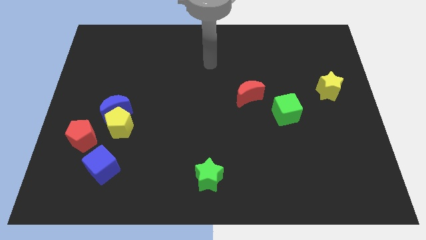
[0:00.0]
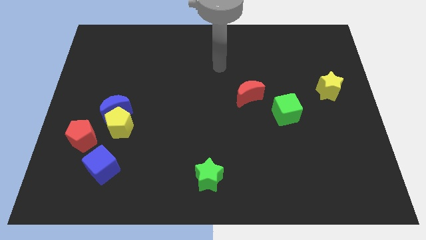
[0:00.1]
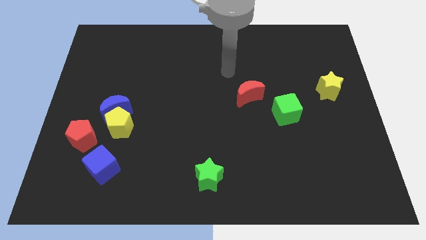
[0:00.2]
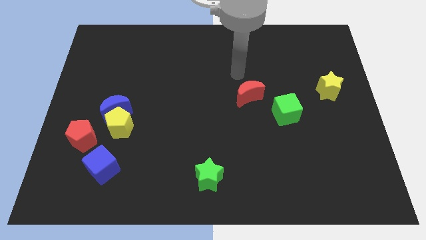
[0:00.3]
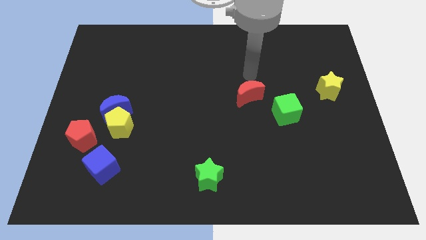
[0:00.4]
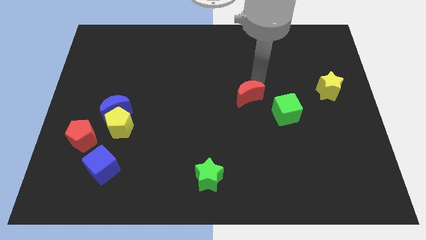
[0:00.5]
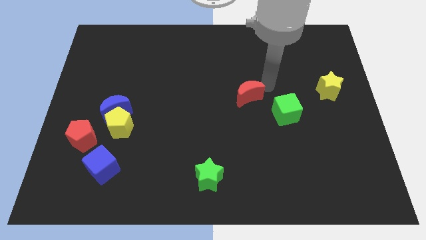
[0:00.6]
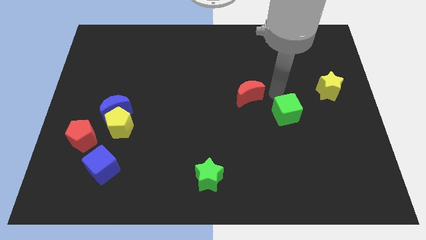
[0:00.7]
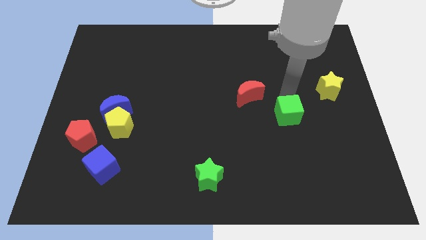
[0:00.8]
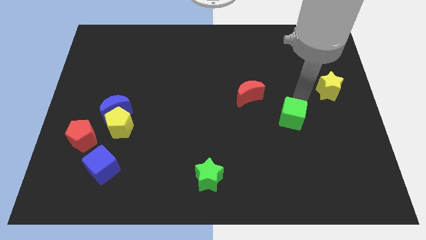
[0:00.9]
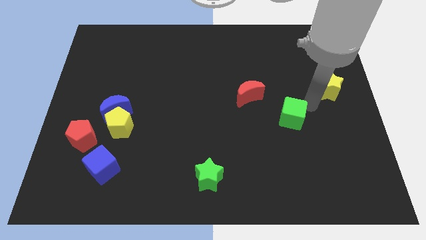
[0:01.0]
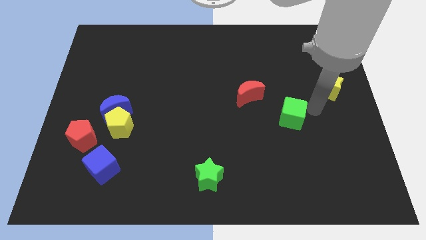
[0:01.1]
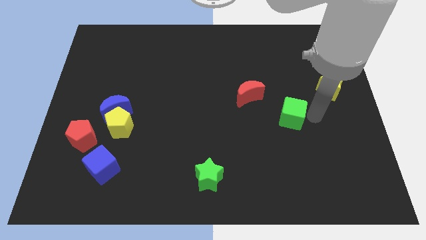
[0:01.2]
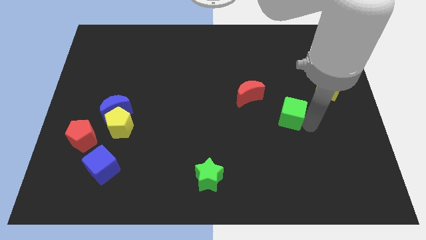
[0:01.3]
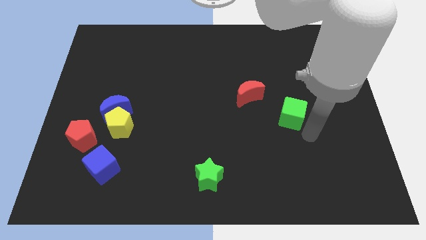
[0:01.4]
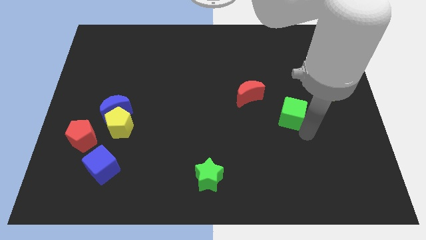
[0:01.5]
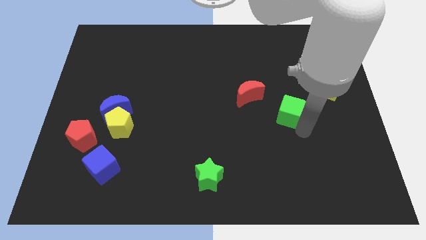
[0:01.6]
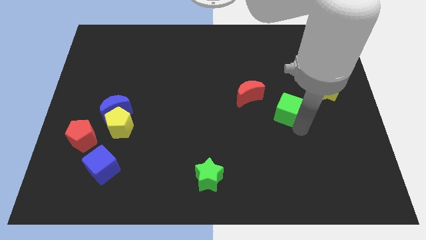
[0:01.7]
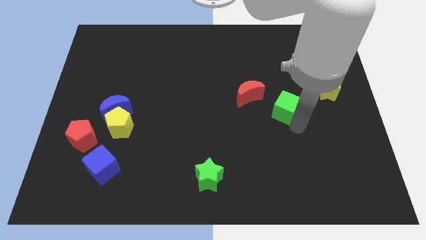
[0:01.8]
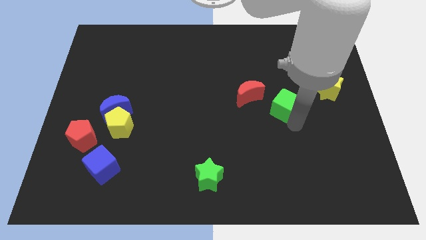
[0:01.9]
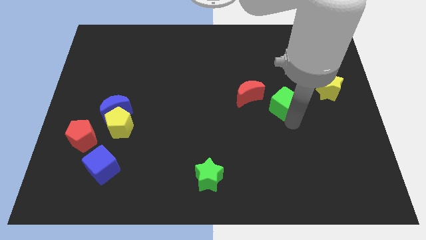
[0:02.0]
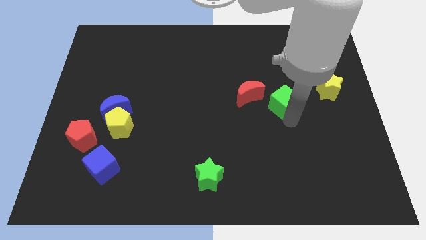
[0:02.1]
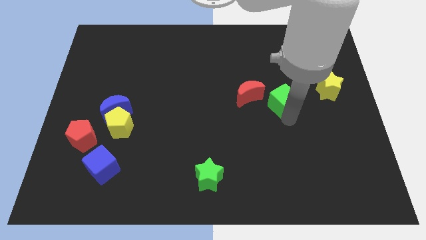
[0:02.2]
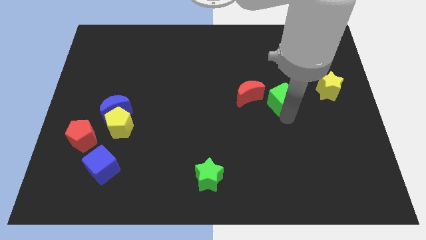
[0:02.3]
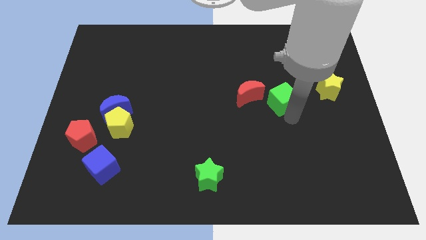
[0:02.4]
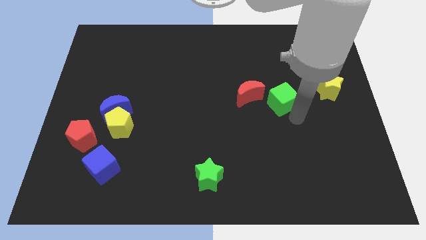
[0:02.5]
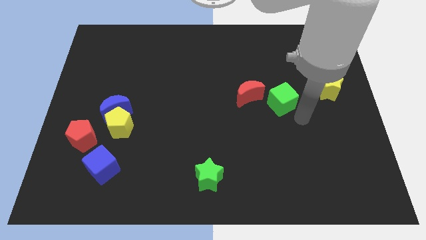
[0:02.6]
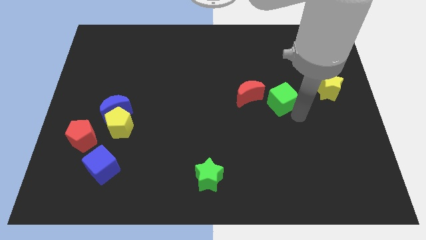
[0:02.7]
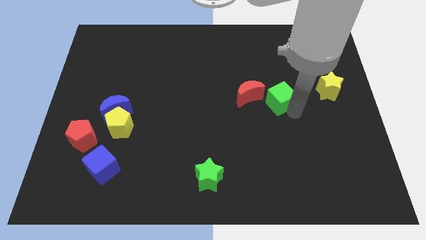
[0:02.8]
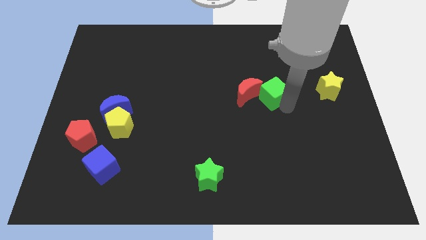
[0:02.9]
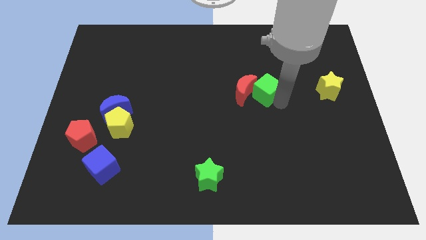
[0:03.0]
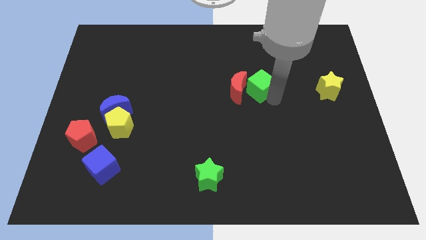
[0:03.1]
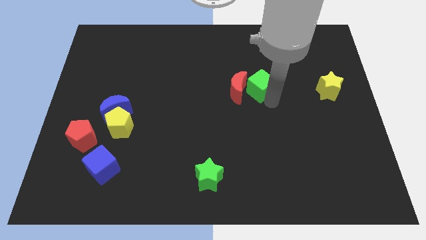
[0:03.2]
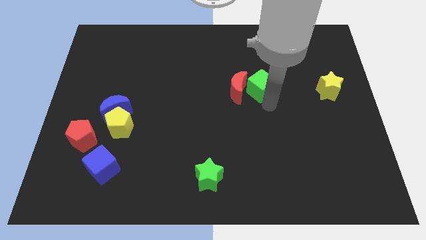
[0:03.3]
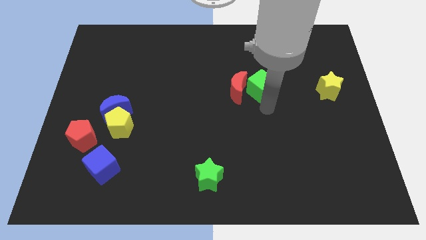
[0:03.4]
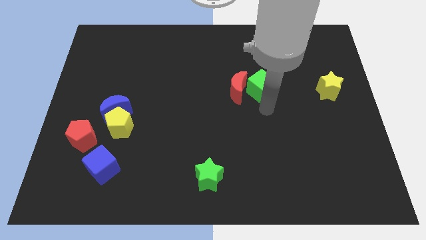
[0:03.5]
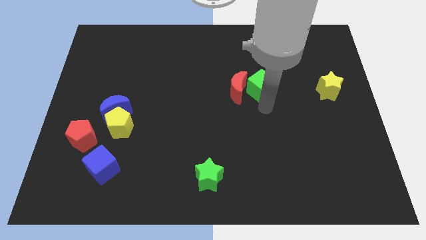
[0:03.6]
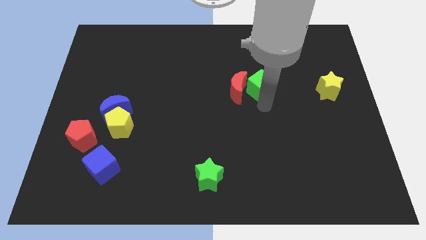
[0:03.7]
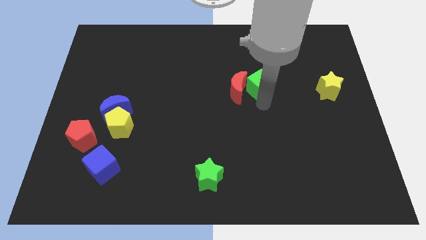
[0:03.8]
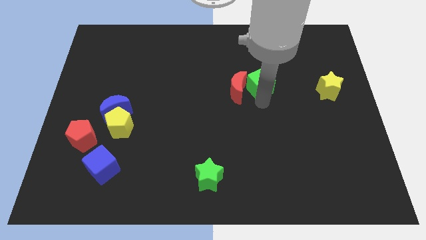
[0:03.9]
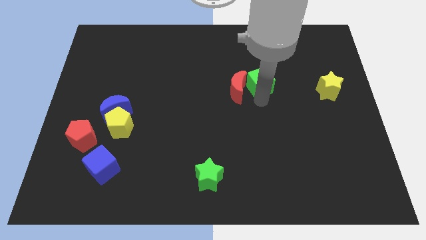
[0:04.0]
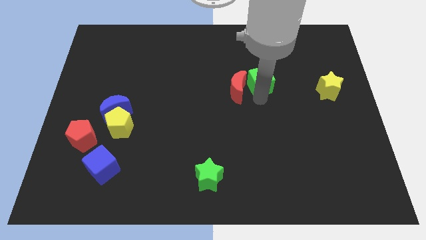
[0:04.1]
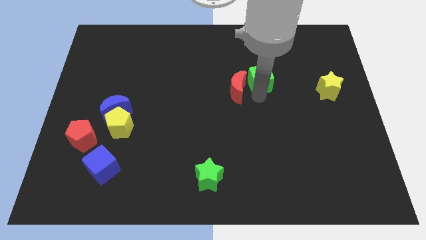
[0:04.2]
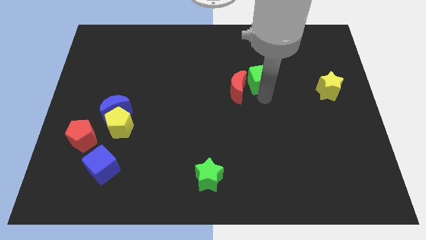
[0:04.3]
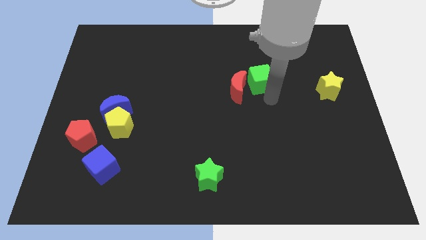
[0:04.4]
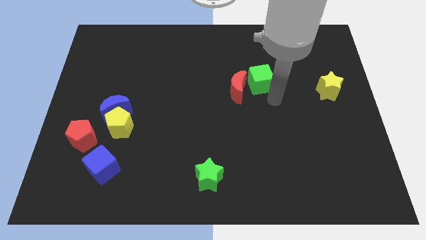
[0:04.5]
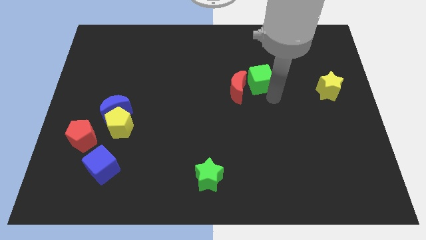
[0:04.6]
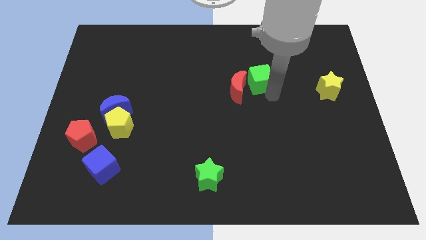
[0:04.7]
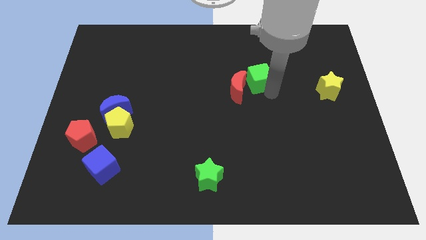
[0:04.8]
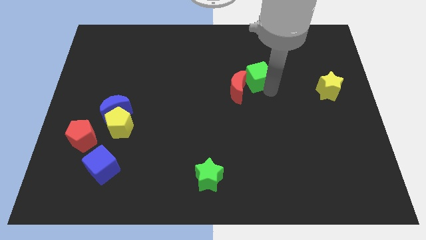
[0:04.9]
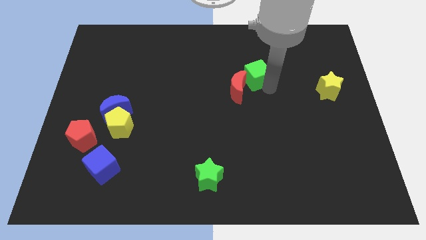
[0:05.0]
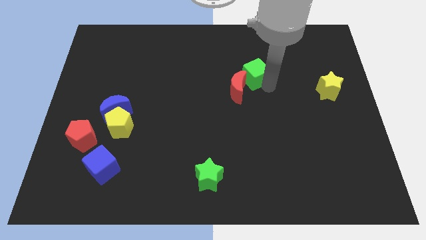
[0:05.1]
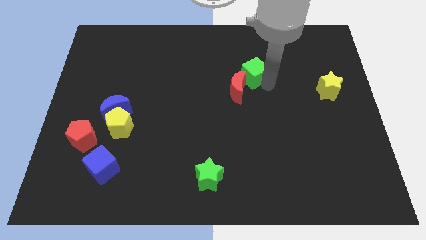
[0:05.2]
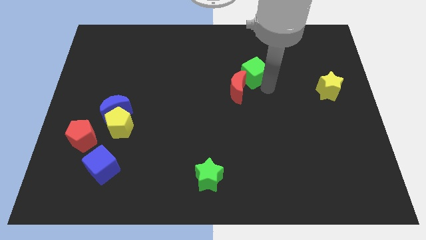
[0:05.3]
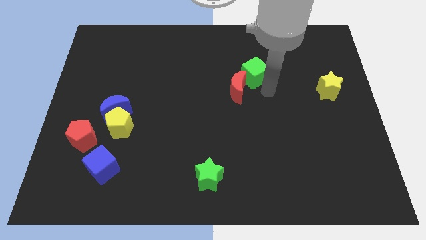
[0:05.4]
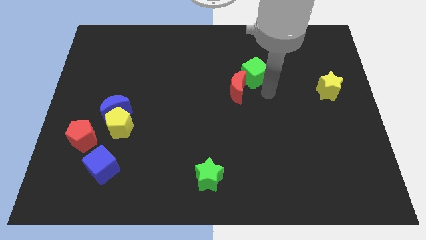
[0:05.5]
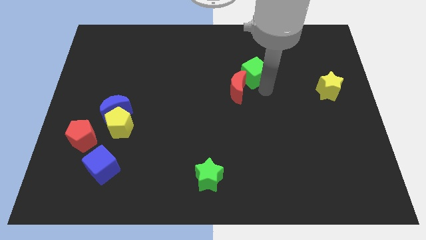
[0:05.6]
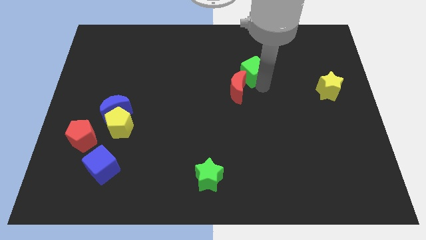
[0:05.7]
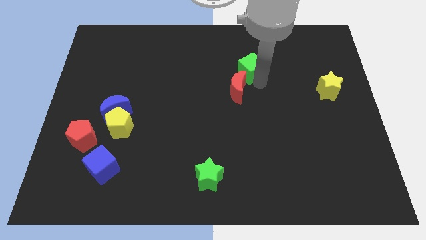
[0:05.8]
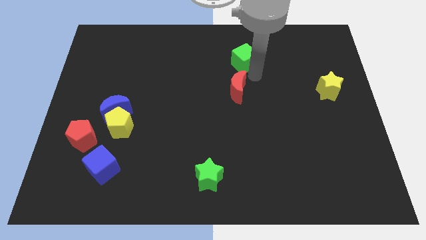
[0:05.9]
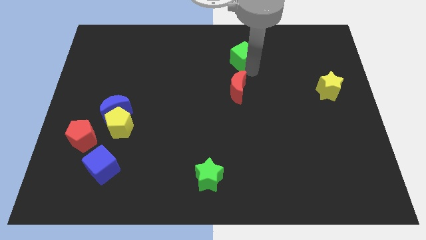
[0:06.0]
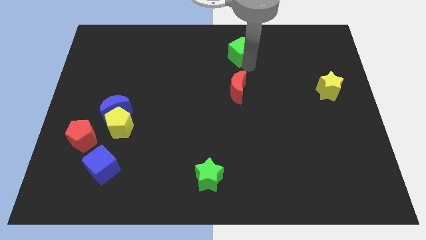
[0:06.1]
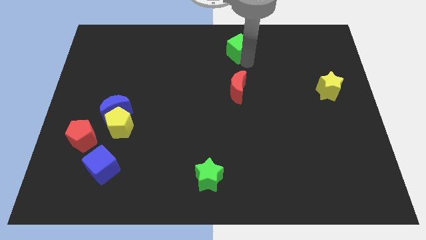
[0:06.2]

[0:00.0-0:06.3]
put the green cube to the top side
